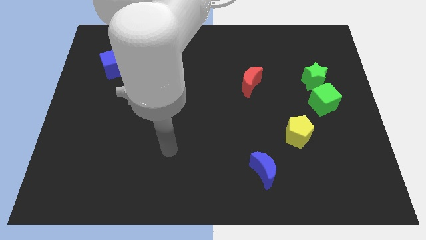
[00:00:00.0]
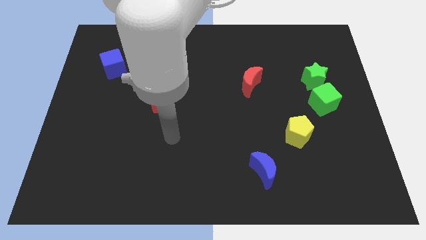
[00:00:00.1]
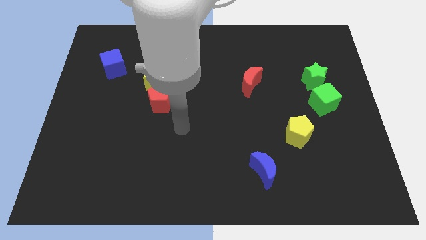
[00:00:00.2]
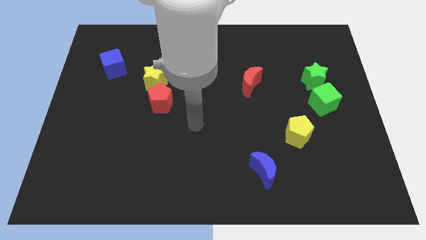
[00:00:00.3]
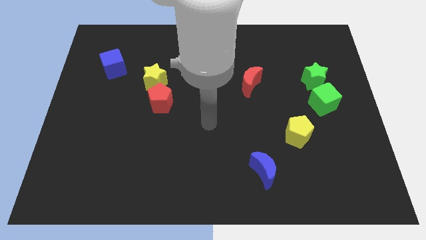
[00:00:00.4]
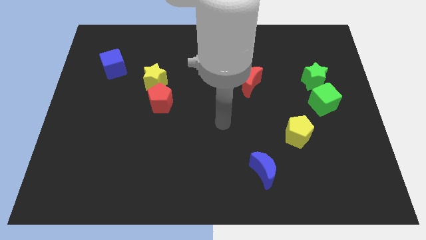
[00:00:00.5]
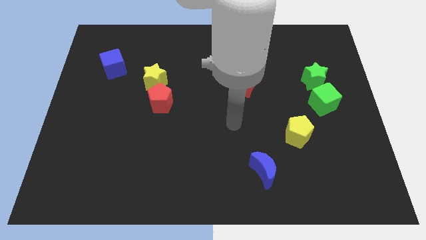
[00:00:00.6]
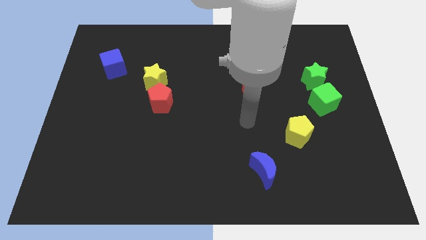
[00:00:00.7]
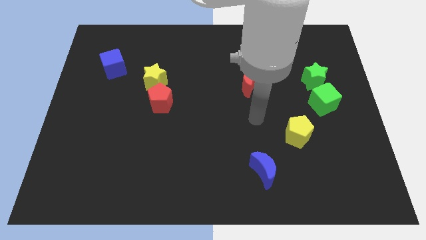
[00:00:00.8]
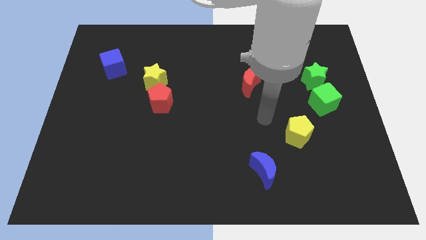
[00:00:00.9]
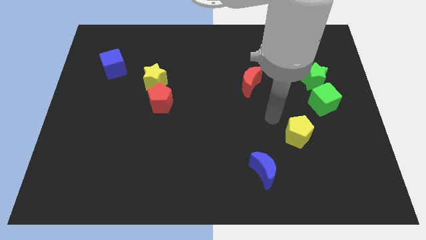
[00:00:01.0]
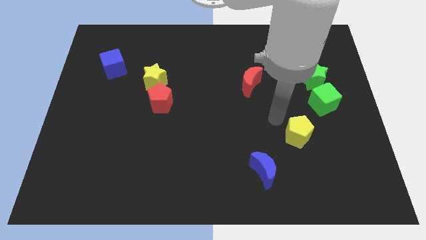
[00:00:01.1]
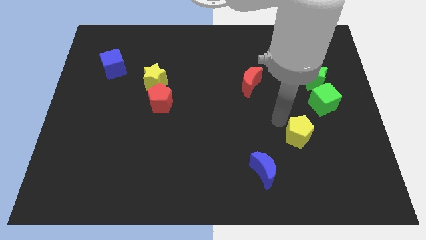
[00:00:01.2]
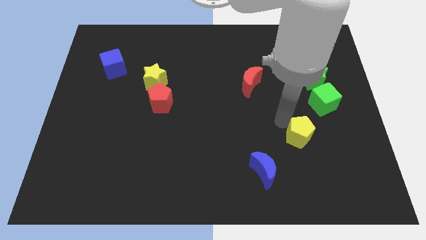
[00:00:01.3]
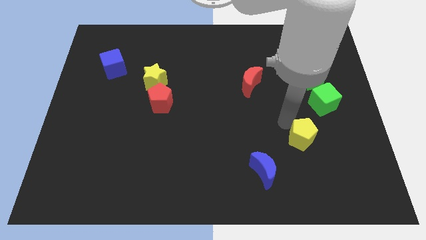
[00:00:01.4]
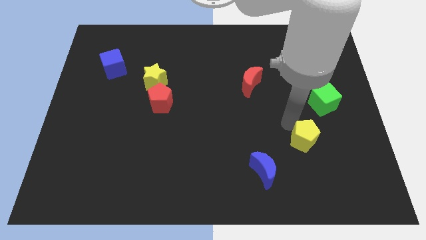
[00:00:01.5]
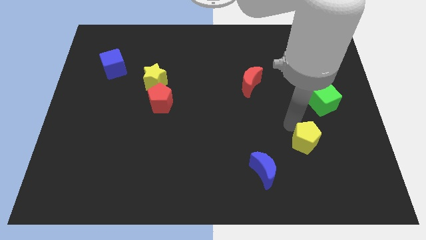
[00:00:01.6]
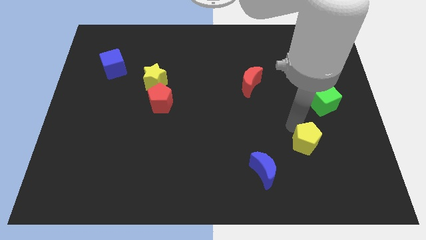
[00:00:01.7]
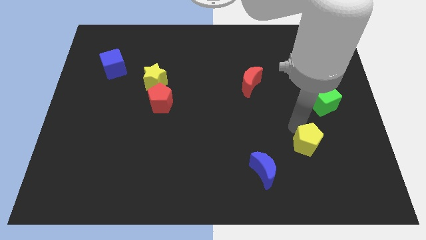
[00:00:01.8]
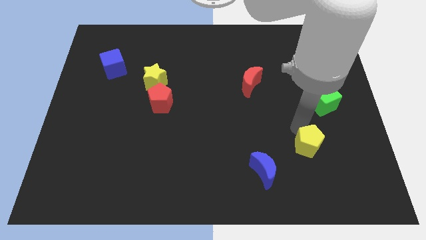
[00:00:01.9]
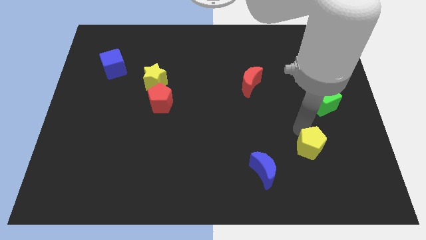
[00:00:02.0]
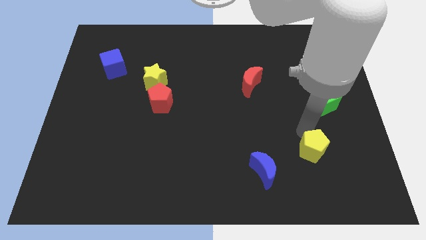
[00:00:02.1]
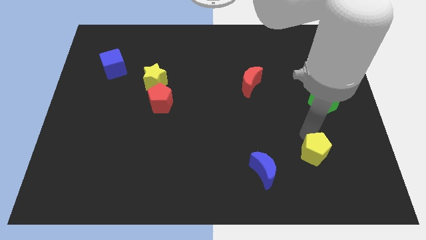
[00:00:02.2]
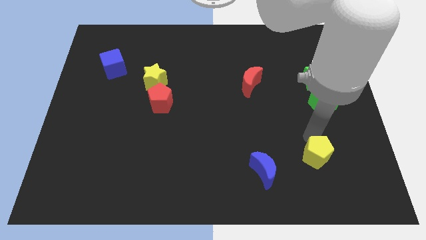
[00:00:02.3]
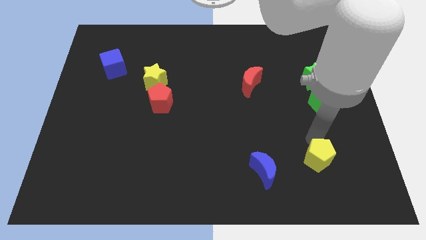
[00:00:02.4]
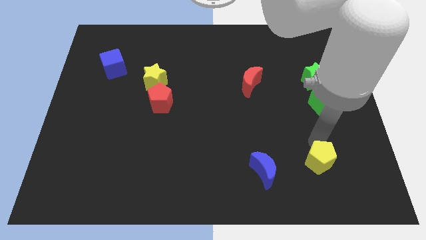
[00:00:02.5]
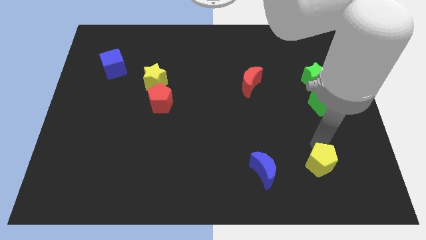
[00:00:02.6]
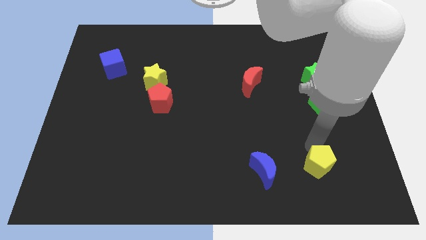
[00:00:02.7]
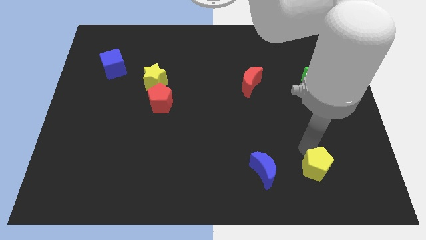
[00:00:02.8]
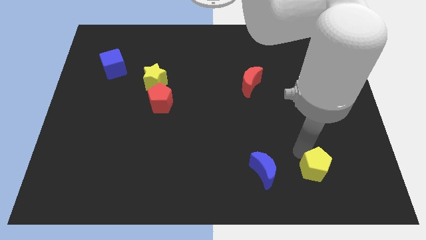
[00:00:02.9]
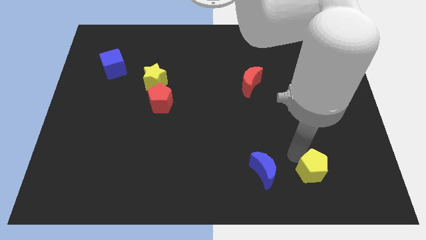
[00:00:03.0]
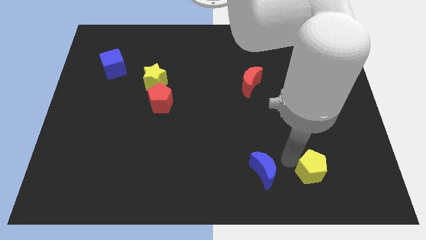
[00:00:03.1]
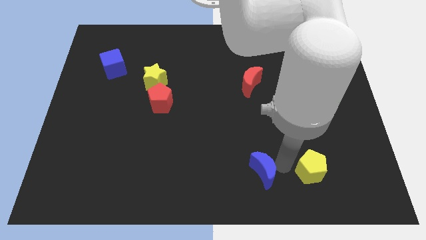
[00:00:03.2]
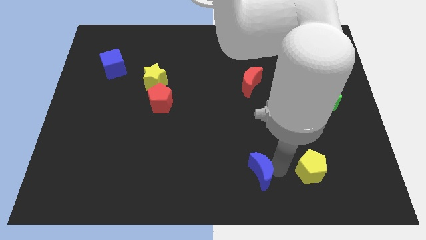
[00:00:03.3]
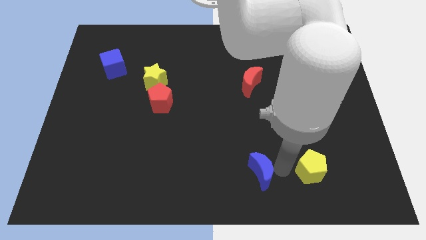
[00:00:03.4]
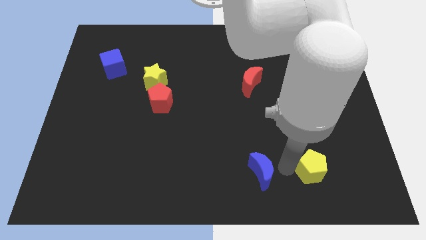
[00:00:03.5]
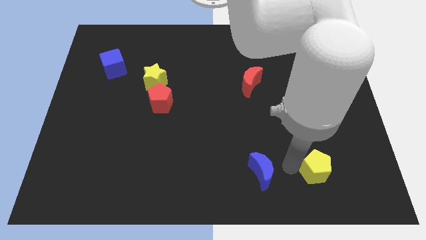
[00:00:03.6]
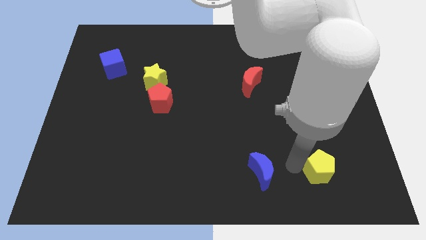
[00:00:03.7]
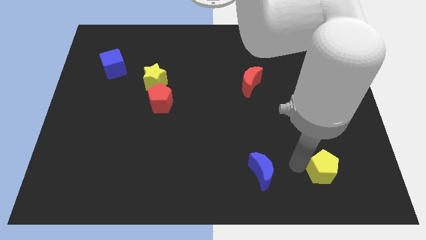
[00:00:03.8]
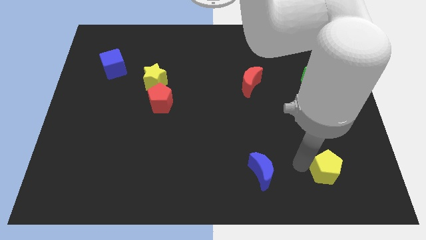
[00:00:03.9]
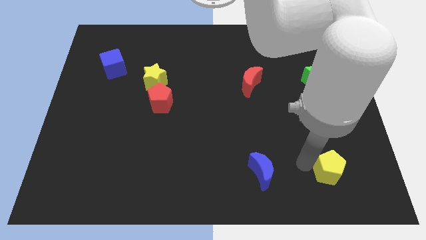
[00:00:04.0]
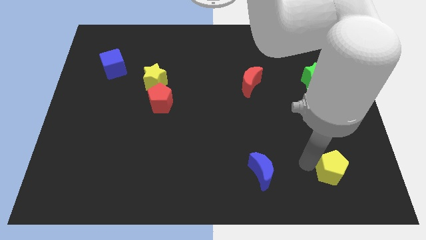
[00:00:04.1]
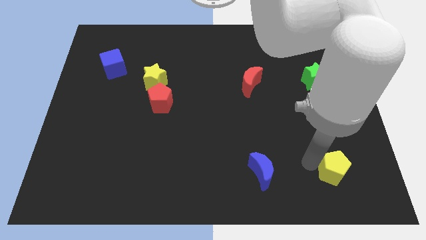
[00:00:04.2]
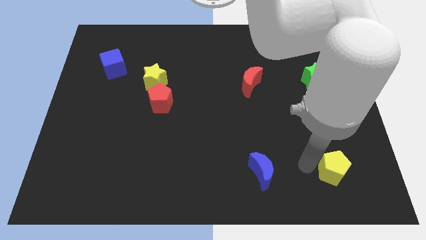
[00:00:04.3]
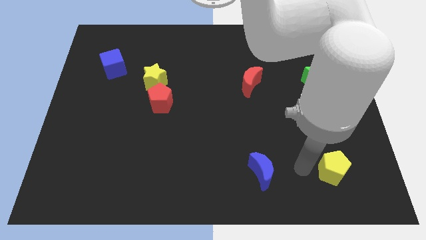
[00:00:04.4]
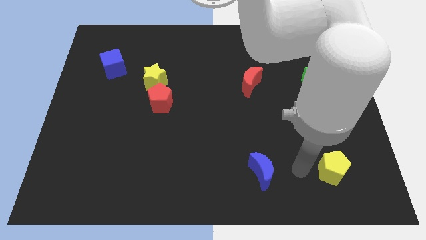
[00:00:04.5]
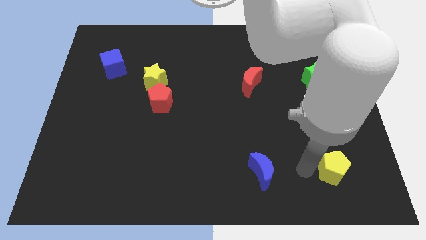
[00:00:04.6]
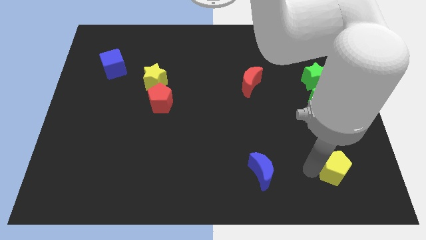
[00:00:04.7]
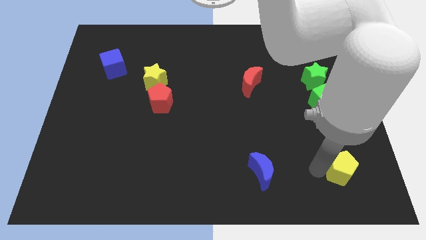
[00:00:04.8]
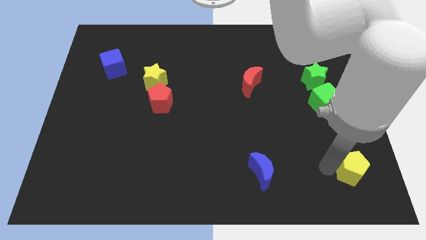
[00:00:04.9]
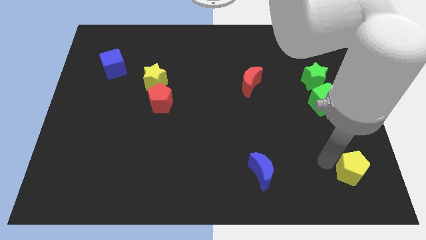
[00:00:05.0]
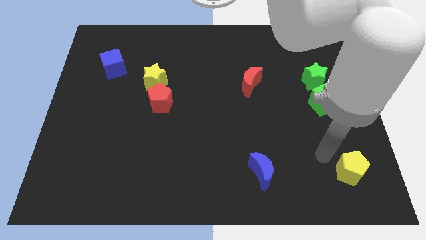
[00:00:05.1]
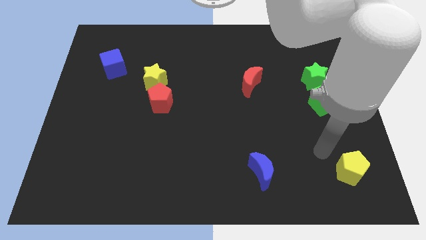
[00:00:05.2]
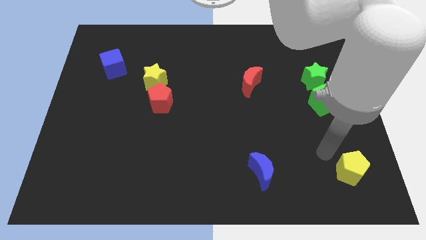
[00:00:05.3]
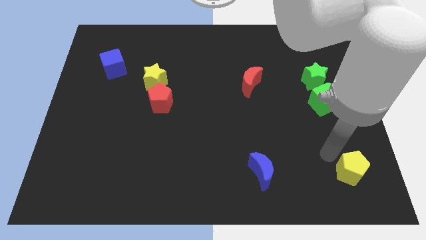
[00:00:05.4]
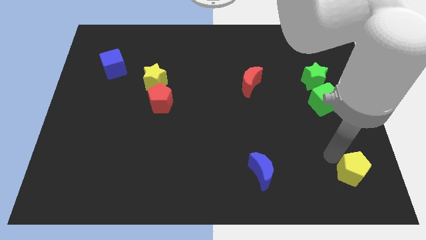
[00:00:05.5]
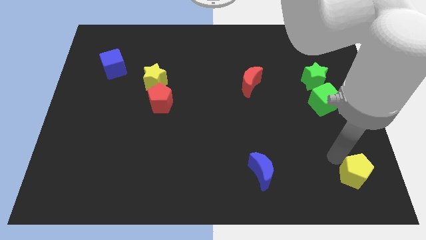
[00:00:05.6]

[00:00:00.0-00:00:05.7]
move the yellow pentagon to the bottom right

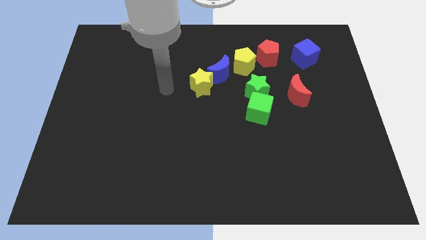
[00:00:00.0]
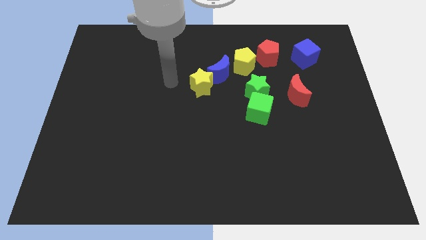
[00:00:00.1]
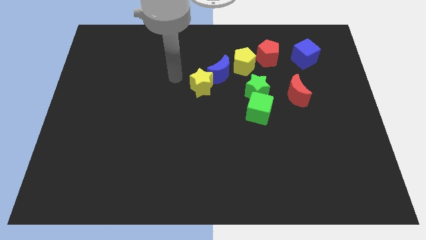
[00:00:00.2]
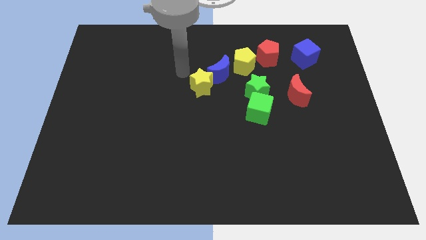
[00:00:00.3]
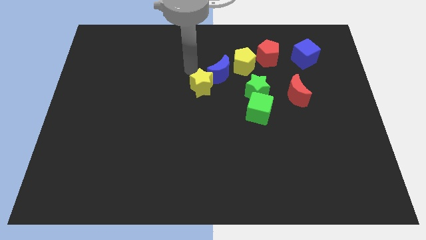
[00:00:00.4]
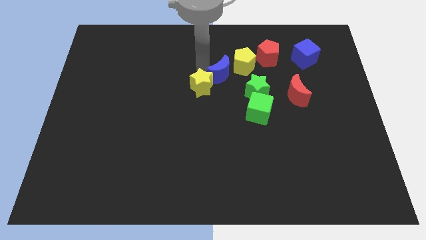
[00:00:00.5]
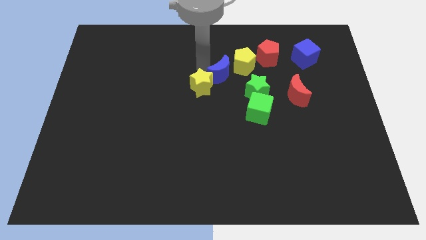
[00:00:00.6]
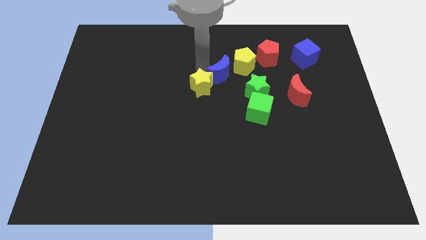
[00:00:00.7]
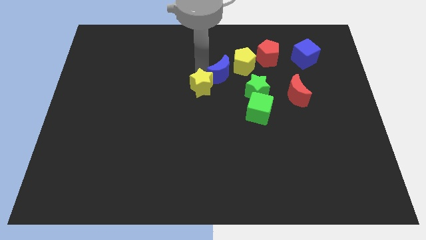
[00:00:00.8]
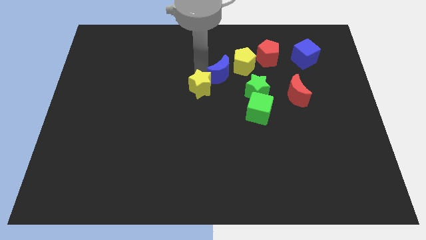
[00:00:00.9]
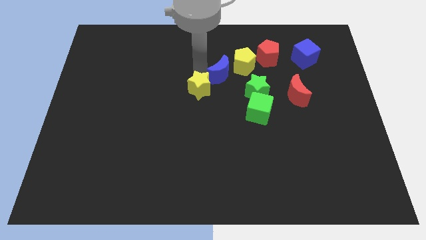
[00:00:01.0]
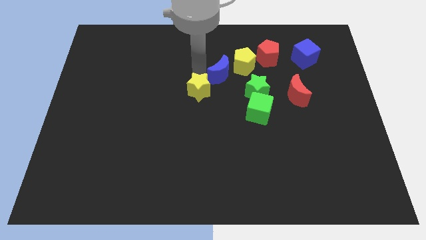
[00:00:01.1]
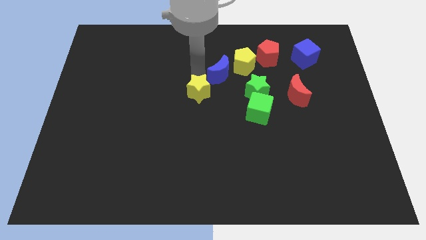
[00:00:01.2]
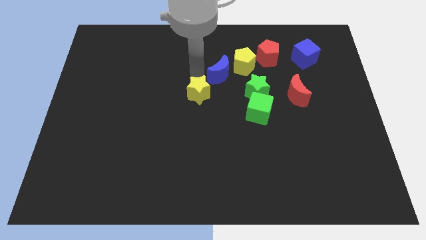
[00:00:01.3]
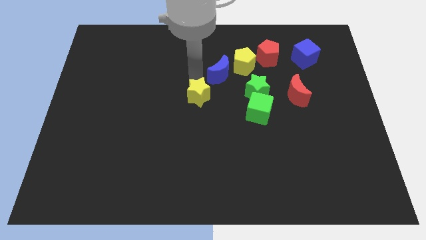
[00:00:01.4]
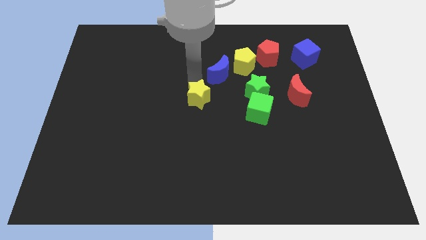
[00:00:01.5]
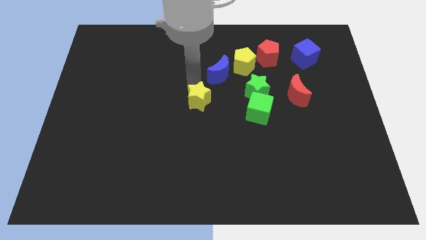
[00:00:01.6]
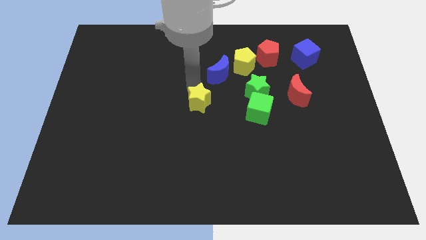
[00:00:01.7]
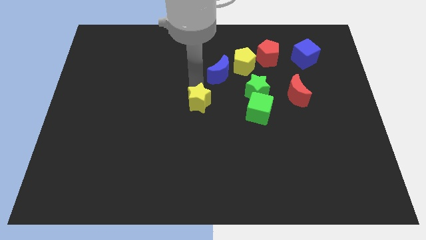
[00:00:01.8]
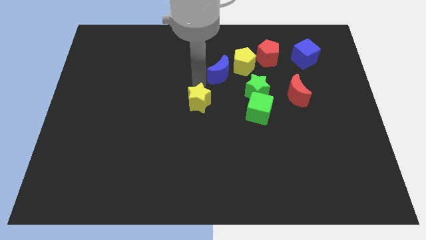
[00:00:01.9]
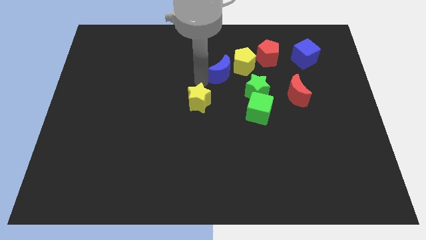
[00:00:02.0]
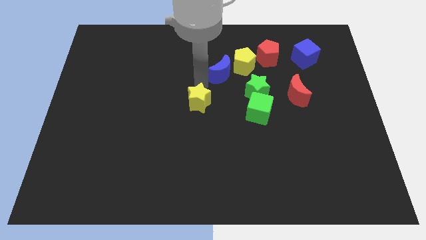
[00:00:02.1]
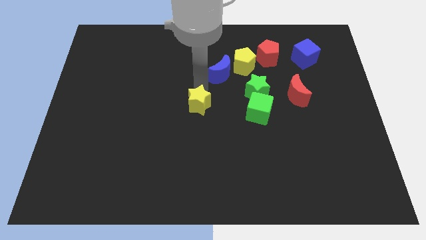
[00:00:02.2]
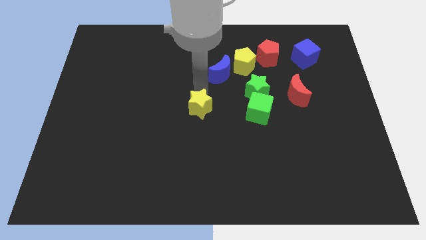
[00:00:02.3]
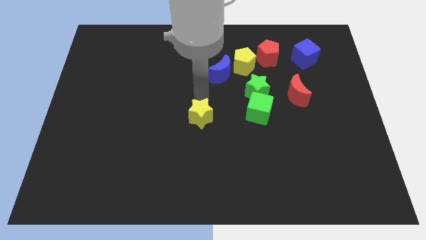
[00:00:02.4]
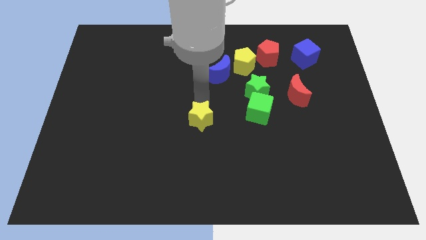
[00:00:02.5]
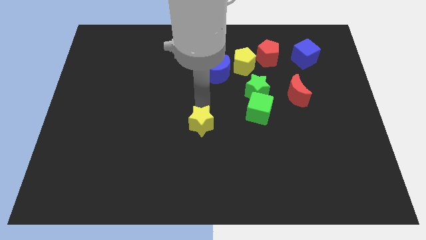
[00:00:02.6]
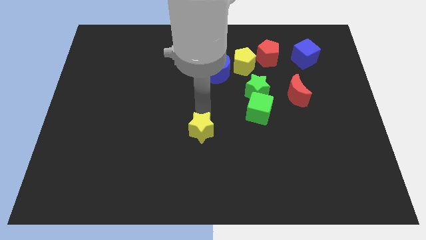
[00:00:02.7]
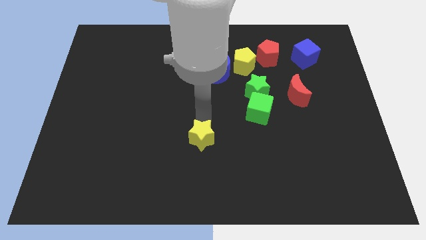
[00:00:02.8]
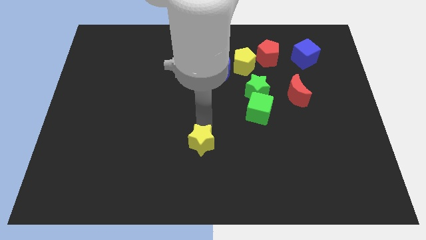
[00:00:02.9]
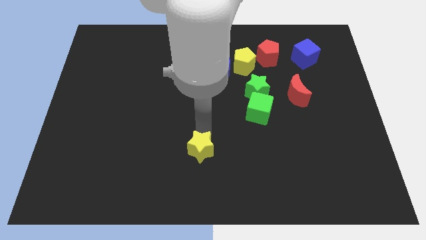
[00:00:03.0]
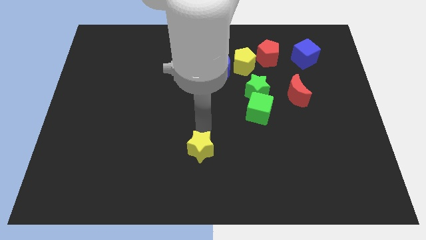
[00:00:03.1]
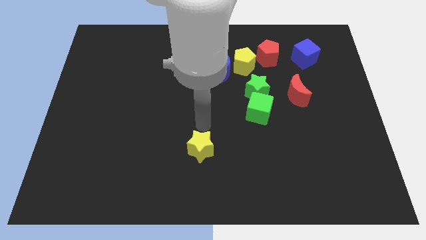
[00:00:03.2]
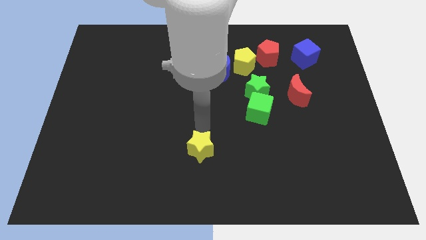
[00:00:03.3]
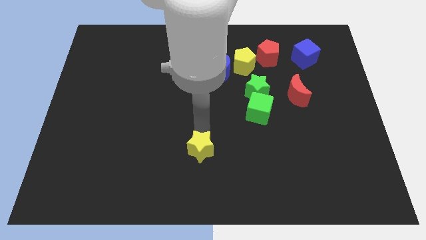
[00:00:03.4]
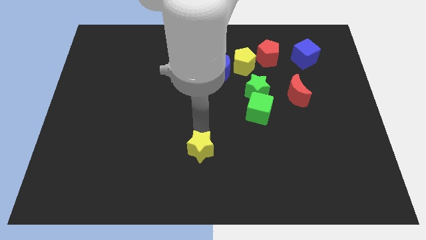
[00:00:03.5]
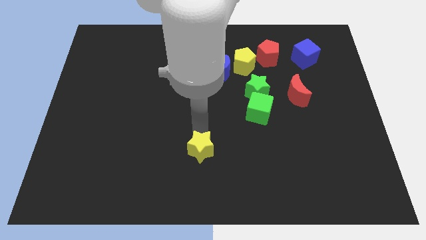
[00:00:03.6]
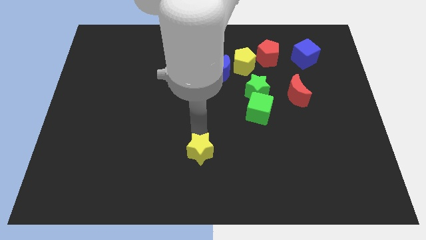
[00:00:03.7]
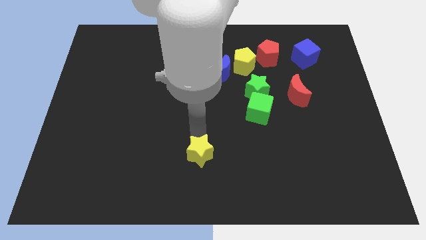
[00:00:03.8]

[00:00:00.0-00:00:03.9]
put the yellow star to the bottom side
